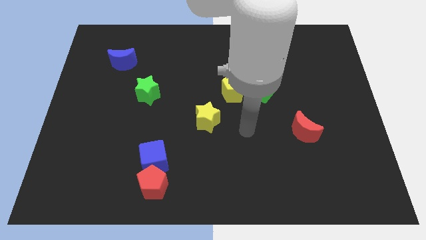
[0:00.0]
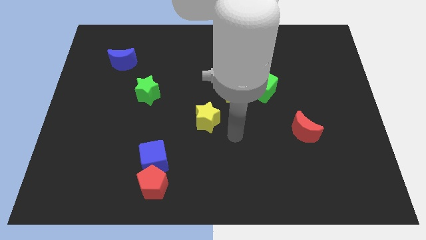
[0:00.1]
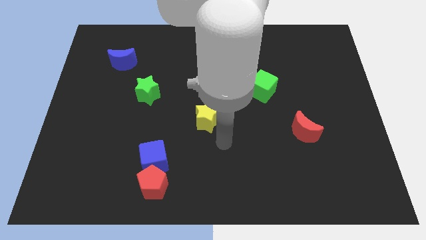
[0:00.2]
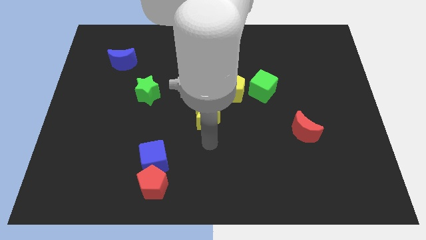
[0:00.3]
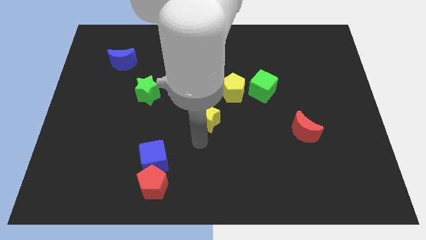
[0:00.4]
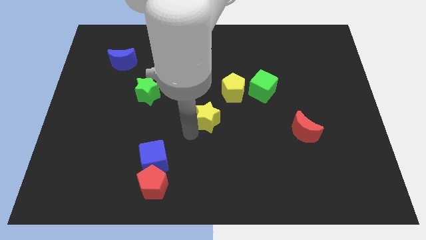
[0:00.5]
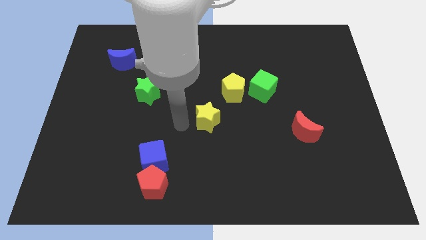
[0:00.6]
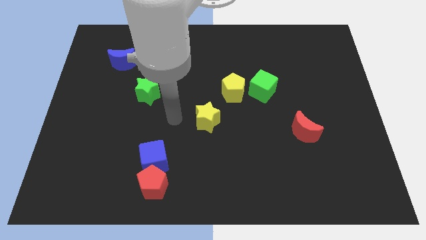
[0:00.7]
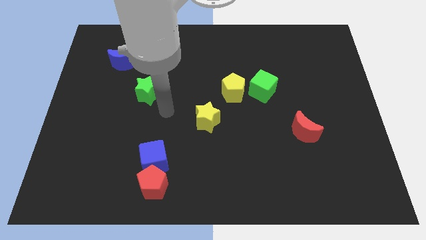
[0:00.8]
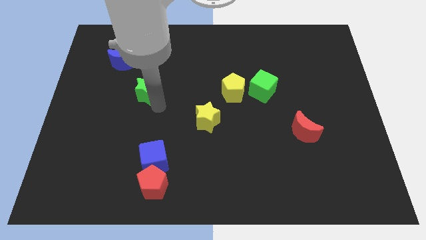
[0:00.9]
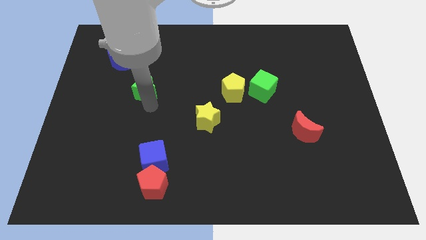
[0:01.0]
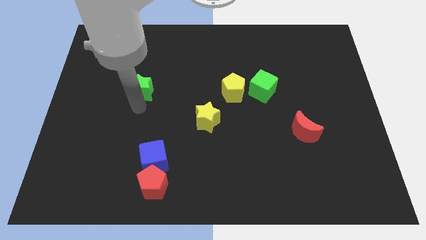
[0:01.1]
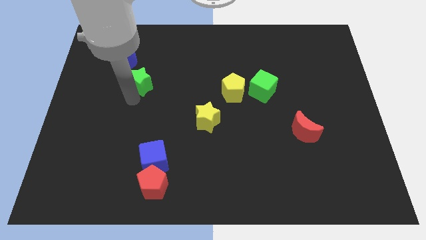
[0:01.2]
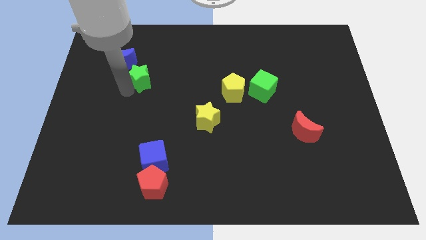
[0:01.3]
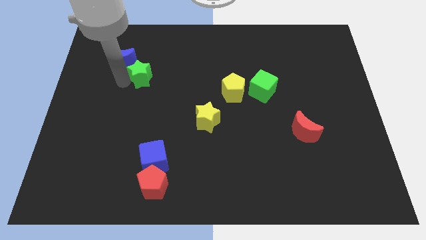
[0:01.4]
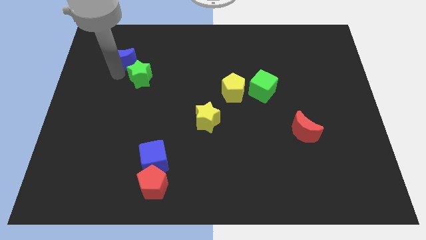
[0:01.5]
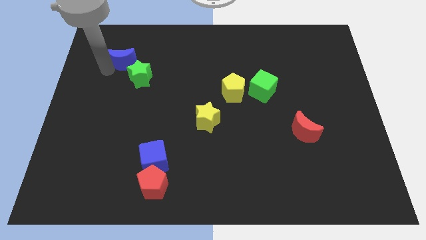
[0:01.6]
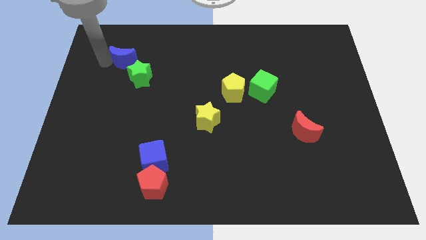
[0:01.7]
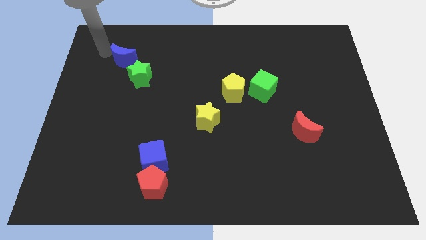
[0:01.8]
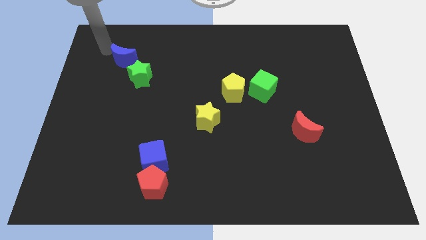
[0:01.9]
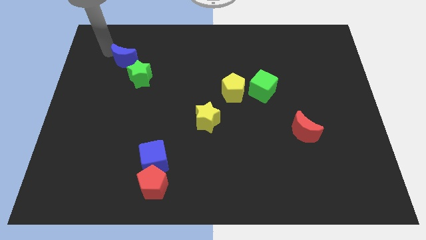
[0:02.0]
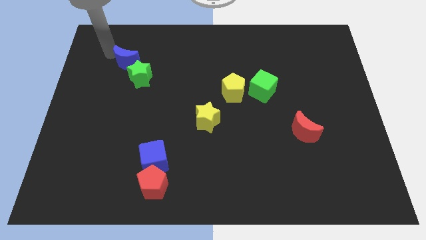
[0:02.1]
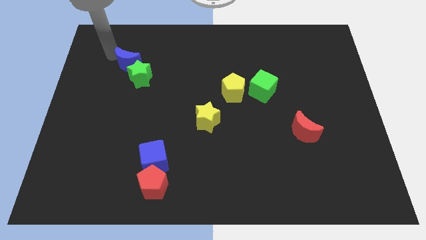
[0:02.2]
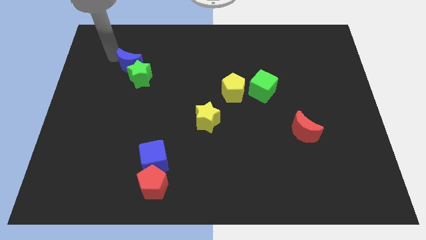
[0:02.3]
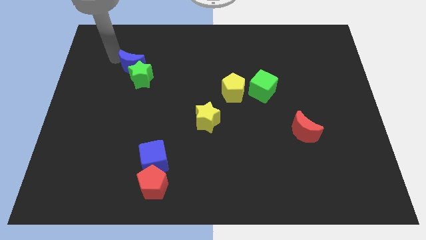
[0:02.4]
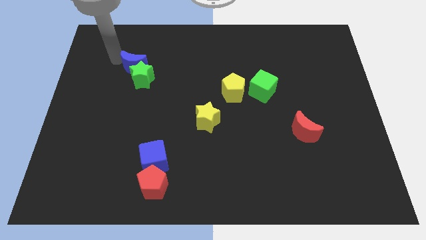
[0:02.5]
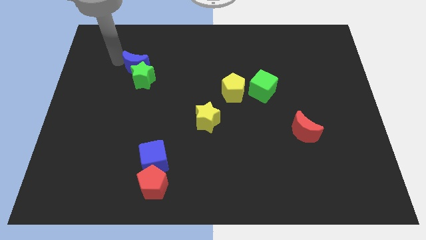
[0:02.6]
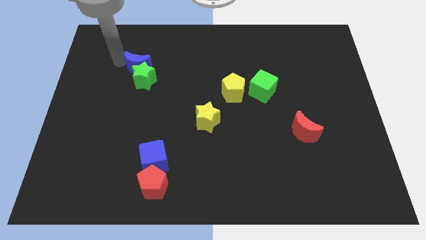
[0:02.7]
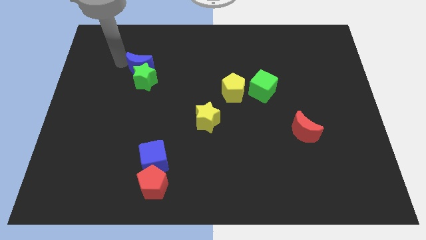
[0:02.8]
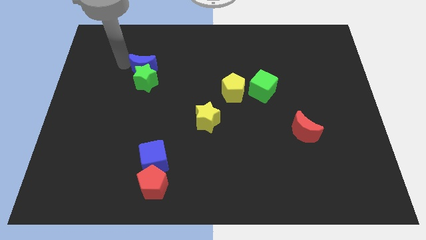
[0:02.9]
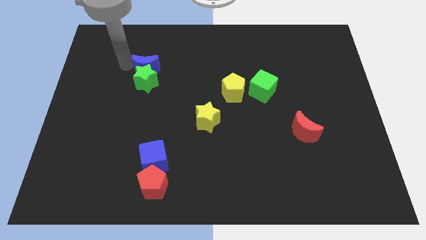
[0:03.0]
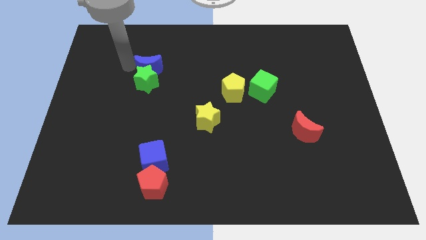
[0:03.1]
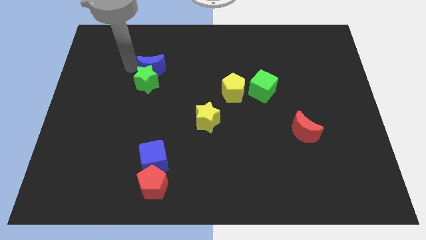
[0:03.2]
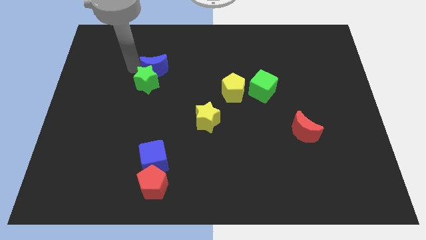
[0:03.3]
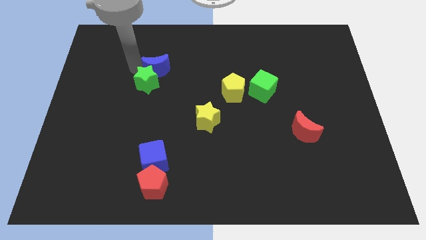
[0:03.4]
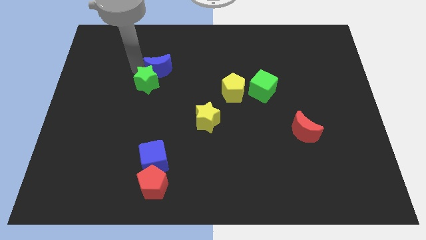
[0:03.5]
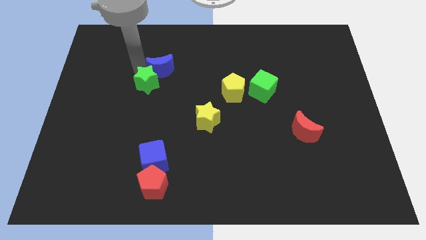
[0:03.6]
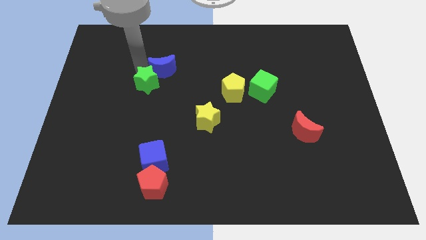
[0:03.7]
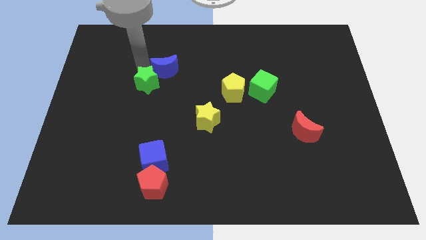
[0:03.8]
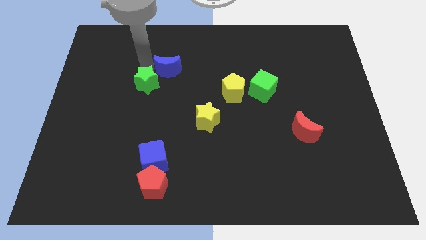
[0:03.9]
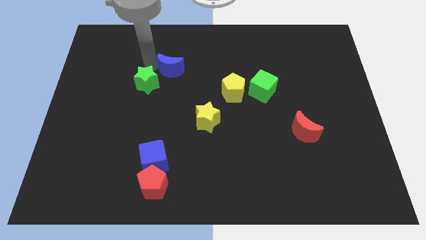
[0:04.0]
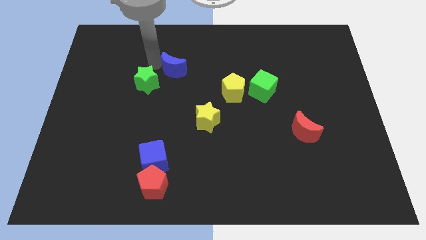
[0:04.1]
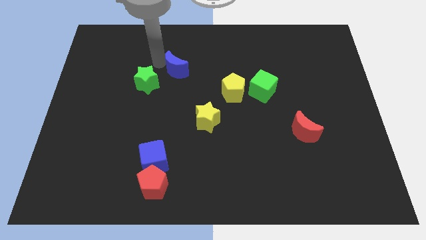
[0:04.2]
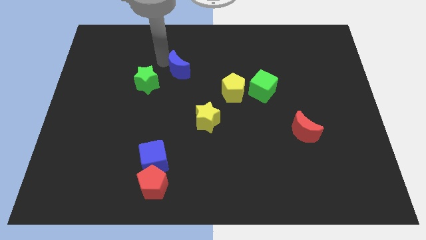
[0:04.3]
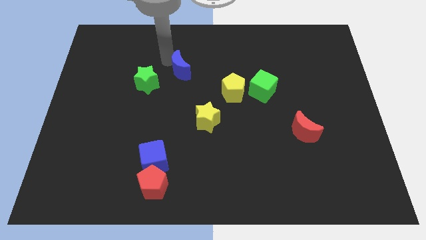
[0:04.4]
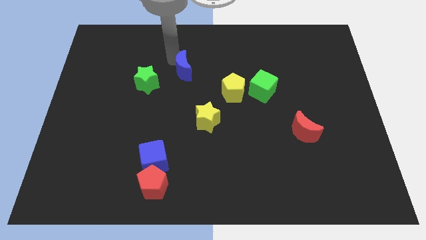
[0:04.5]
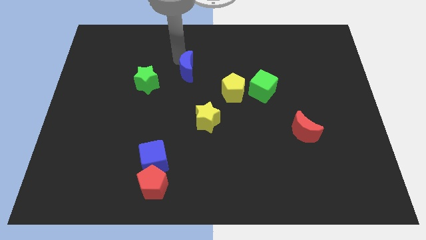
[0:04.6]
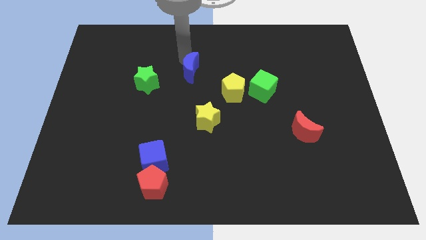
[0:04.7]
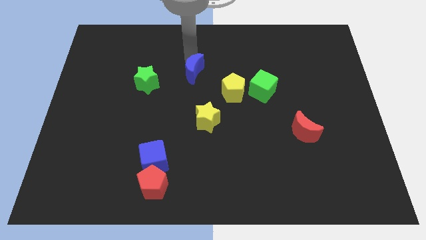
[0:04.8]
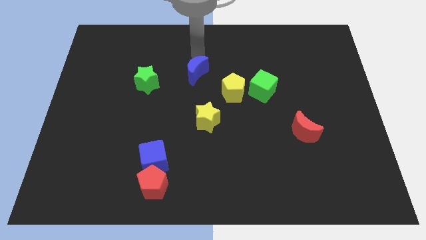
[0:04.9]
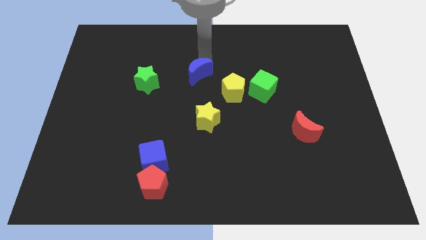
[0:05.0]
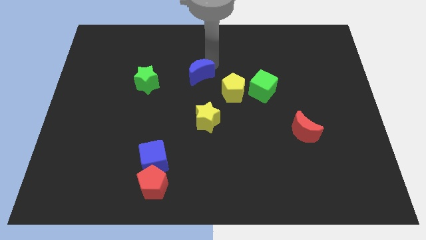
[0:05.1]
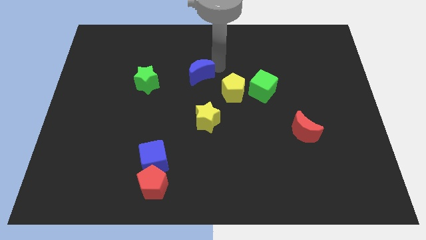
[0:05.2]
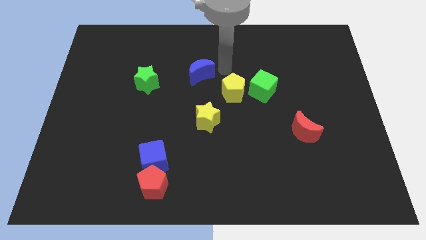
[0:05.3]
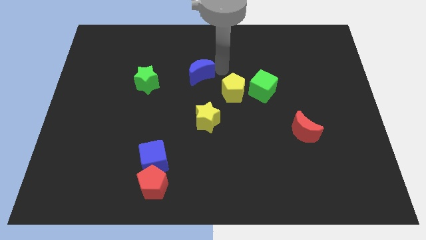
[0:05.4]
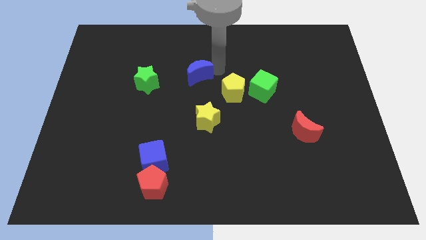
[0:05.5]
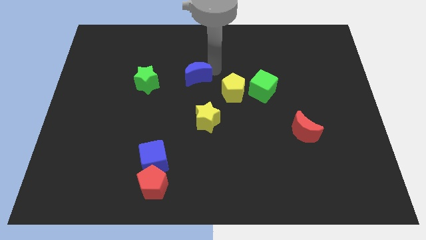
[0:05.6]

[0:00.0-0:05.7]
put the blue moon just left of the yellow pentagon

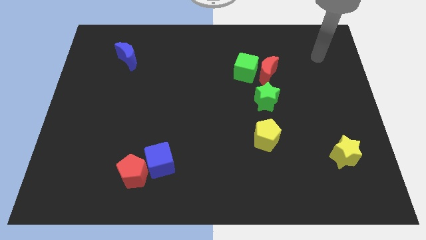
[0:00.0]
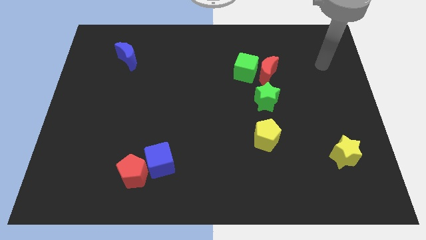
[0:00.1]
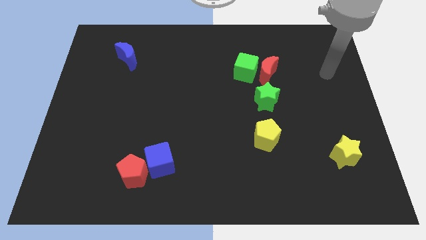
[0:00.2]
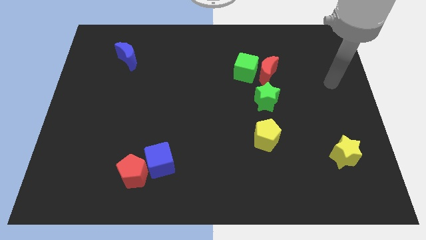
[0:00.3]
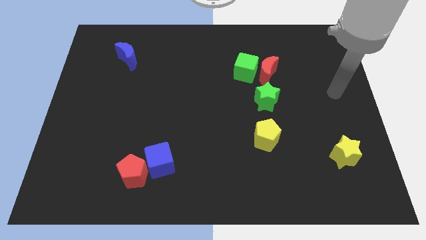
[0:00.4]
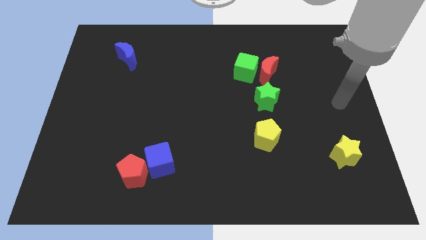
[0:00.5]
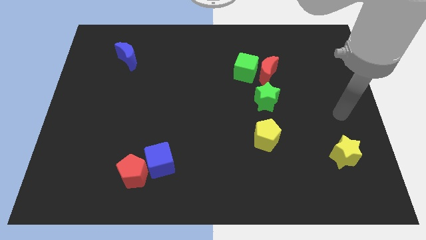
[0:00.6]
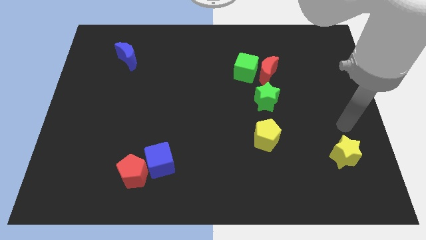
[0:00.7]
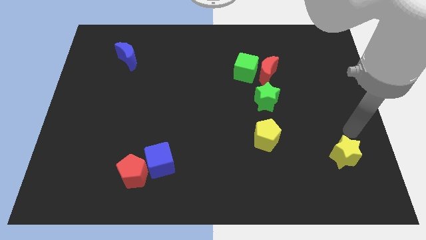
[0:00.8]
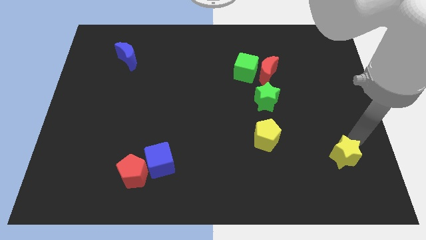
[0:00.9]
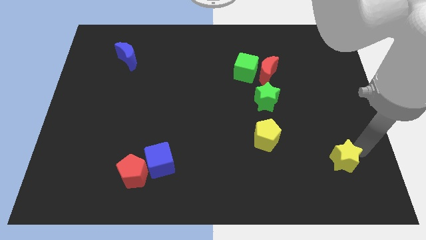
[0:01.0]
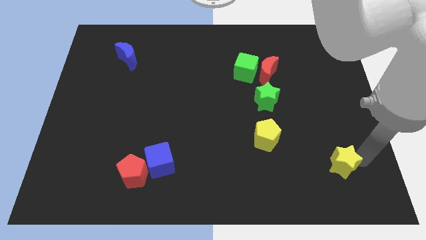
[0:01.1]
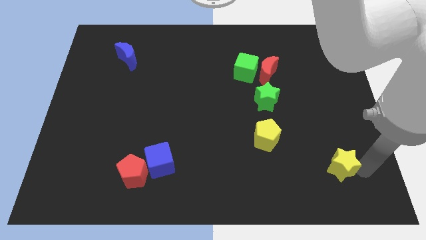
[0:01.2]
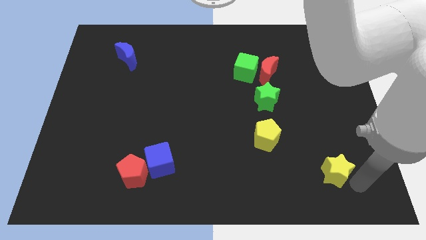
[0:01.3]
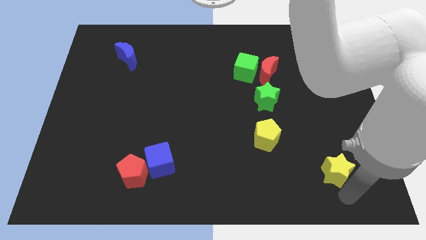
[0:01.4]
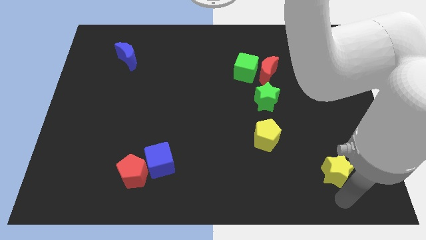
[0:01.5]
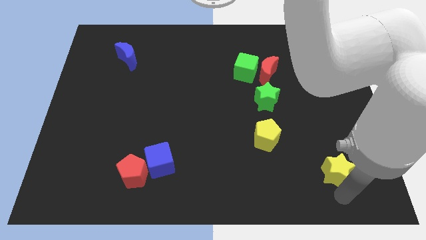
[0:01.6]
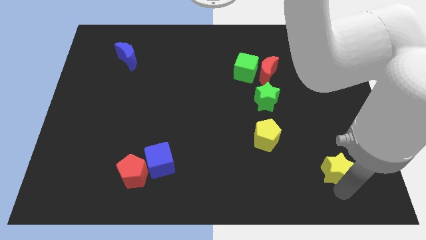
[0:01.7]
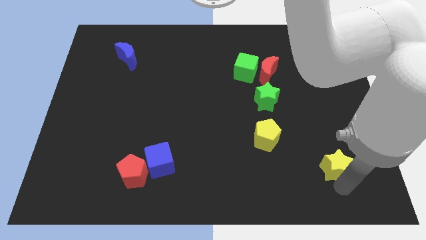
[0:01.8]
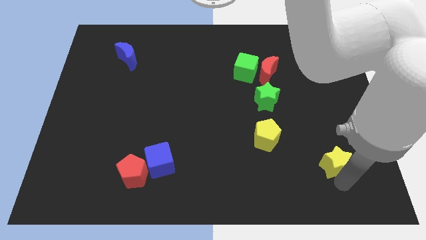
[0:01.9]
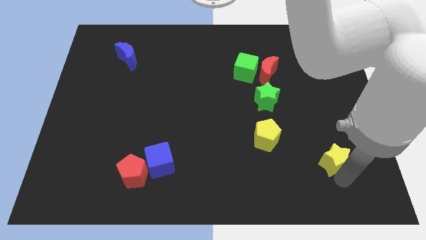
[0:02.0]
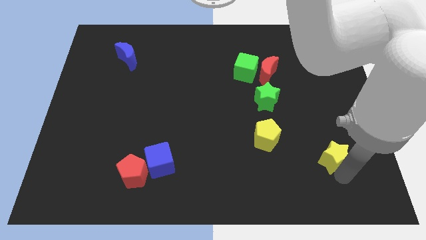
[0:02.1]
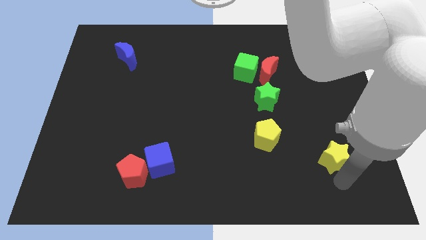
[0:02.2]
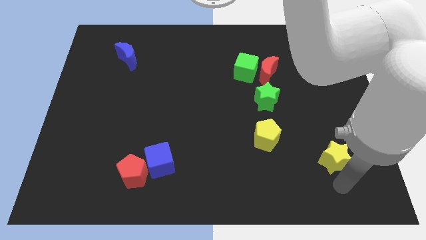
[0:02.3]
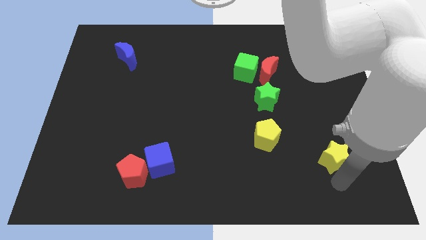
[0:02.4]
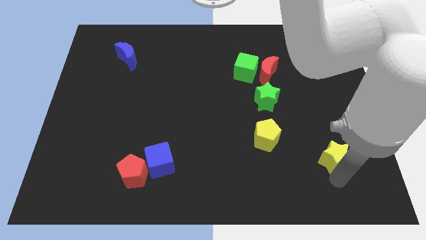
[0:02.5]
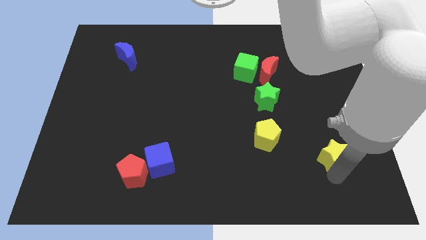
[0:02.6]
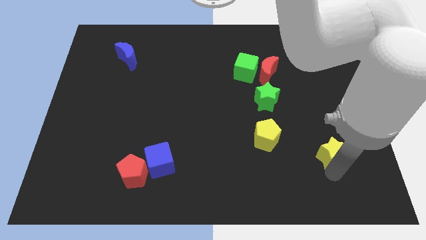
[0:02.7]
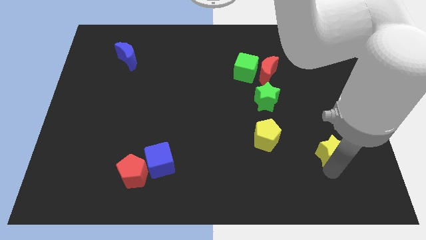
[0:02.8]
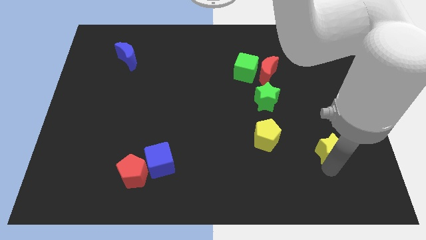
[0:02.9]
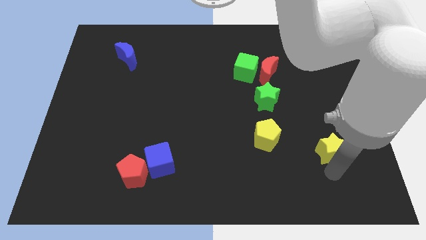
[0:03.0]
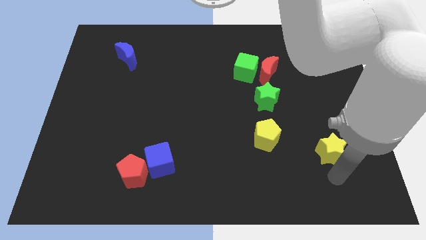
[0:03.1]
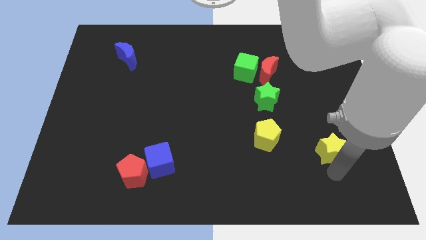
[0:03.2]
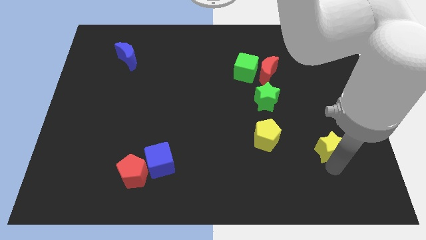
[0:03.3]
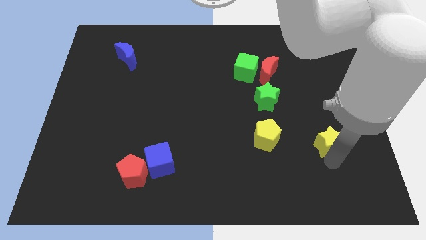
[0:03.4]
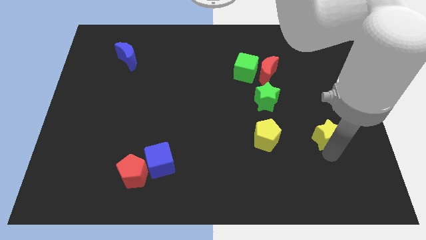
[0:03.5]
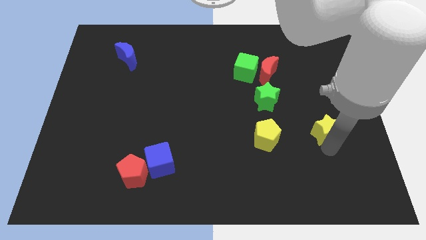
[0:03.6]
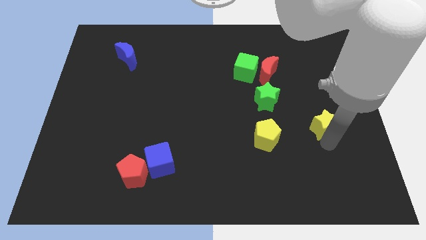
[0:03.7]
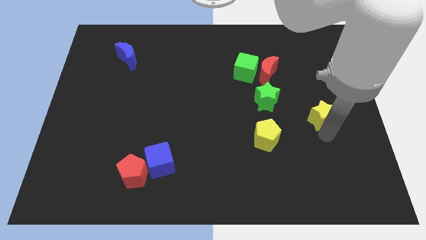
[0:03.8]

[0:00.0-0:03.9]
slide the yellow star to the right of the green star
